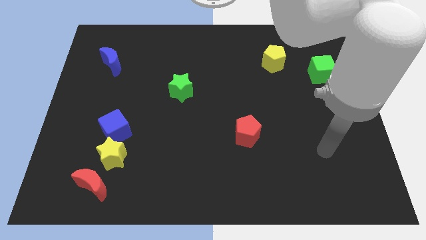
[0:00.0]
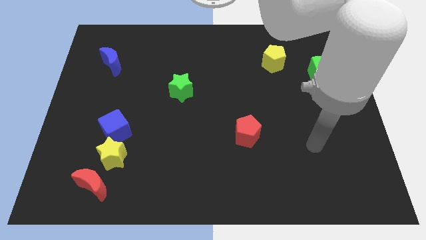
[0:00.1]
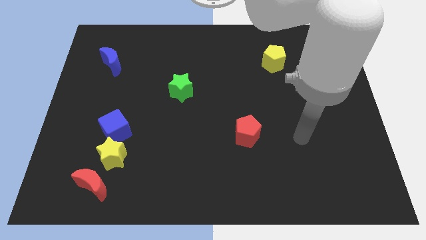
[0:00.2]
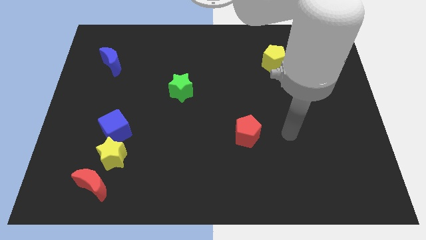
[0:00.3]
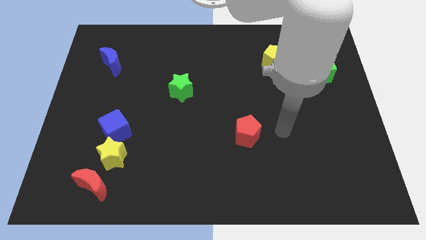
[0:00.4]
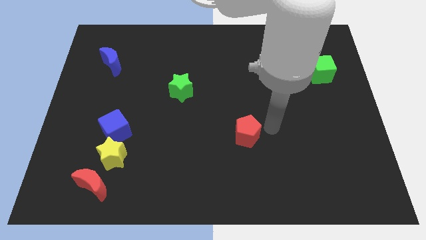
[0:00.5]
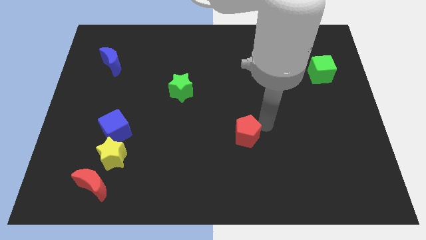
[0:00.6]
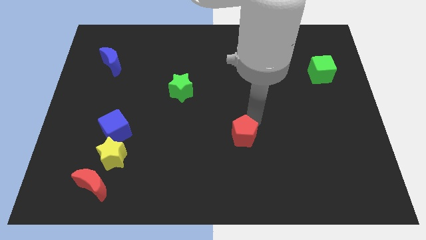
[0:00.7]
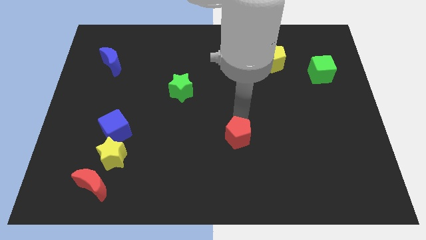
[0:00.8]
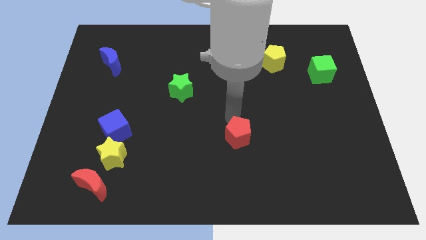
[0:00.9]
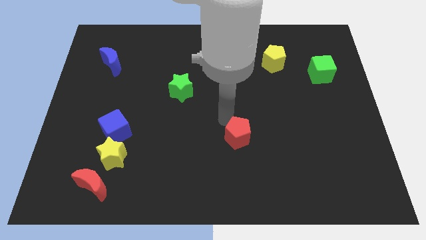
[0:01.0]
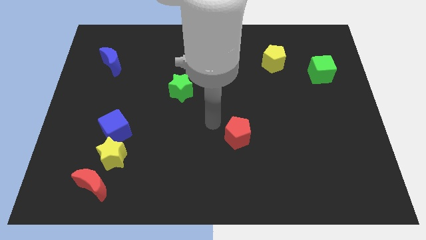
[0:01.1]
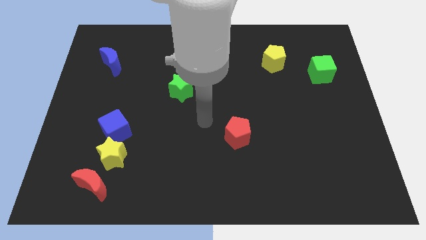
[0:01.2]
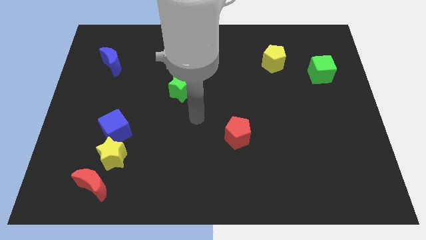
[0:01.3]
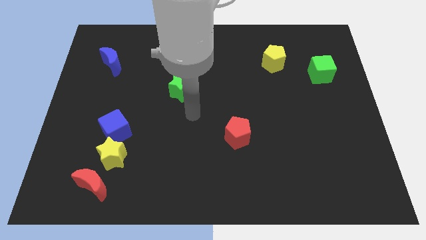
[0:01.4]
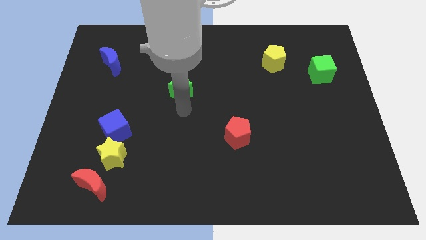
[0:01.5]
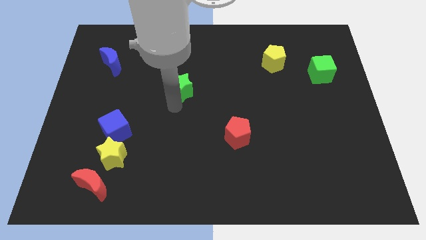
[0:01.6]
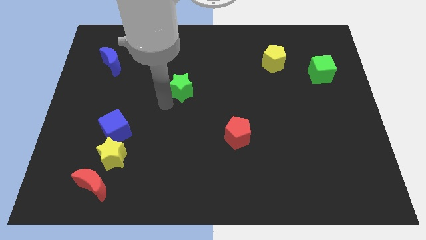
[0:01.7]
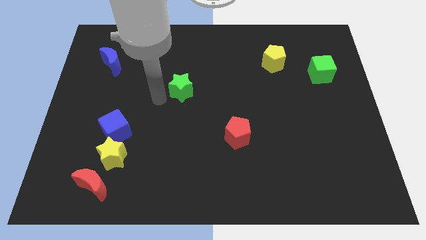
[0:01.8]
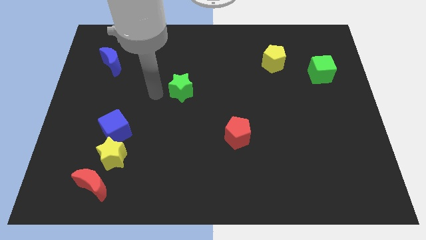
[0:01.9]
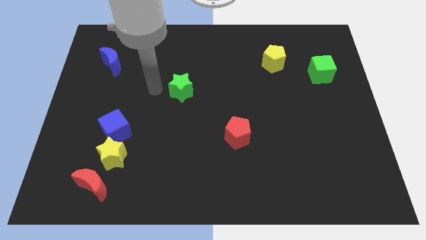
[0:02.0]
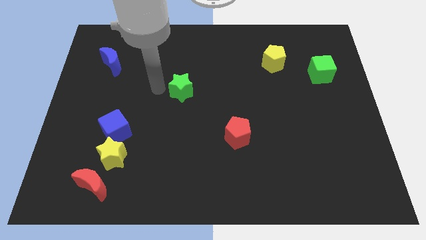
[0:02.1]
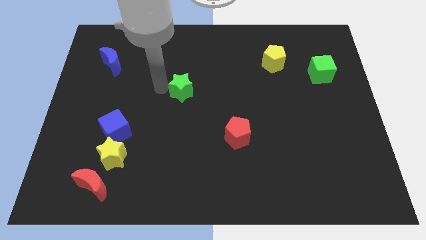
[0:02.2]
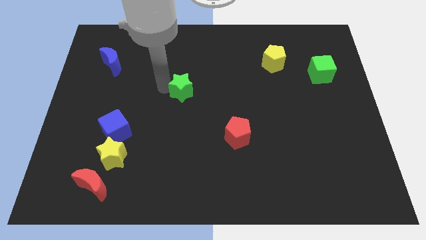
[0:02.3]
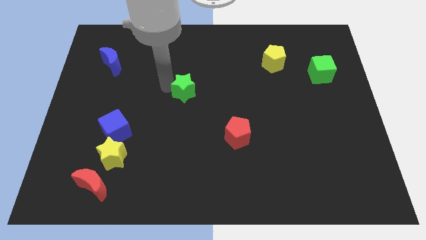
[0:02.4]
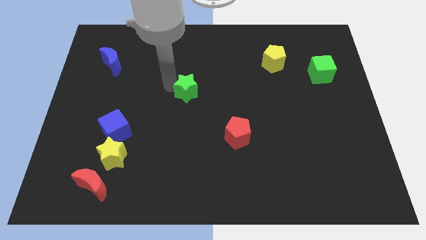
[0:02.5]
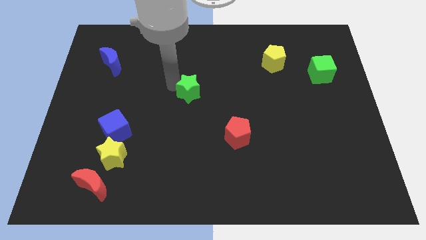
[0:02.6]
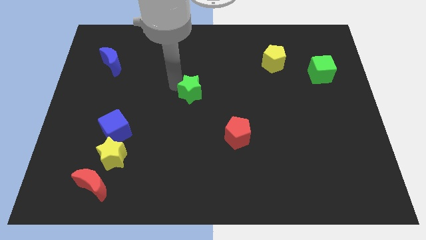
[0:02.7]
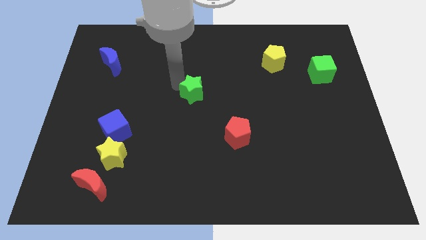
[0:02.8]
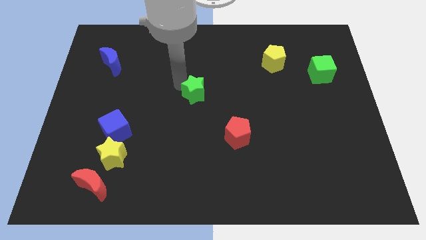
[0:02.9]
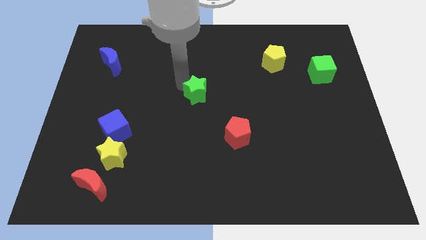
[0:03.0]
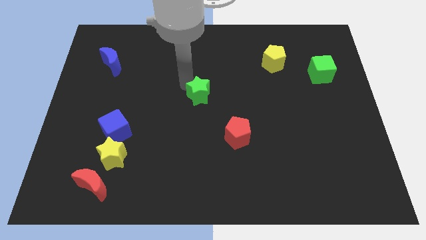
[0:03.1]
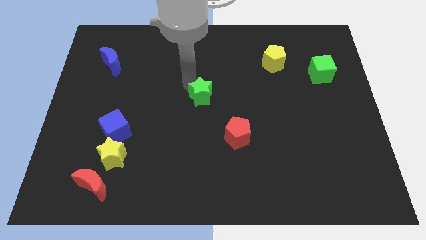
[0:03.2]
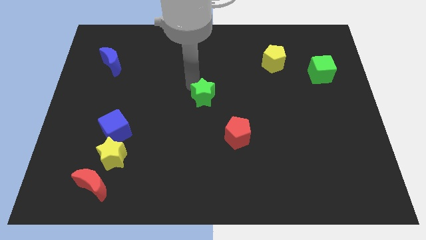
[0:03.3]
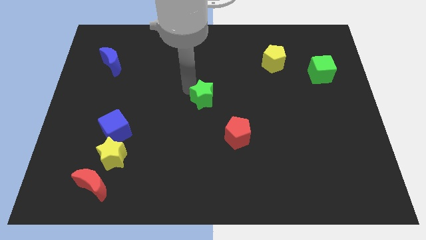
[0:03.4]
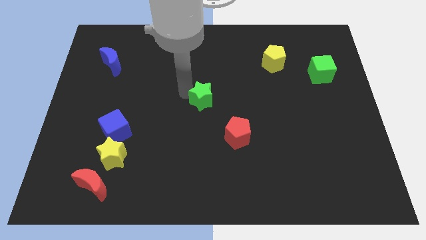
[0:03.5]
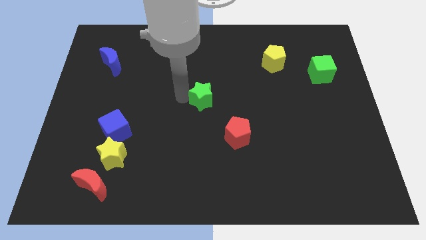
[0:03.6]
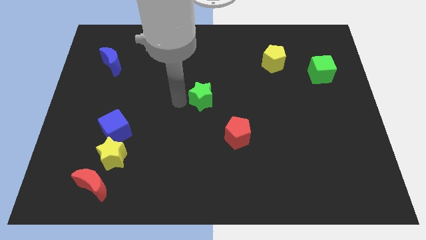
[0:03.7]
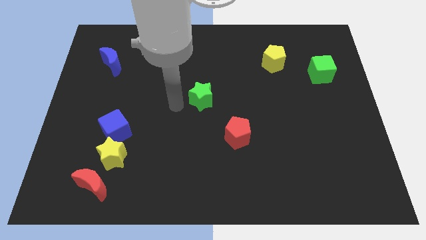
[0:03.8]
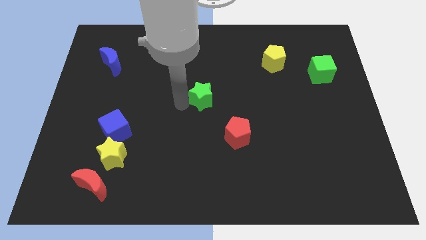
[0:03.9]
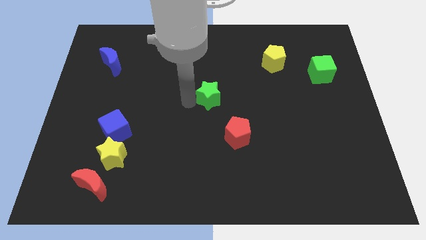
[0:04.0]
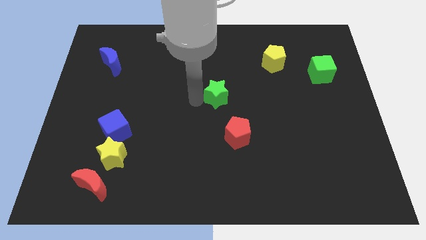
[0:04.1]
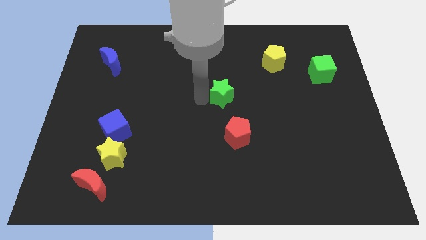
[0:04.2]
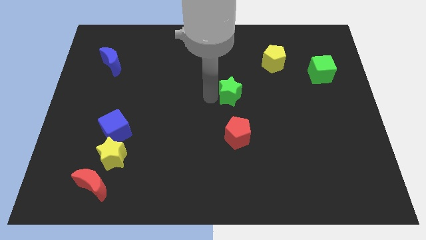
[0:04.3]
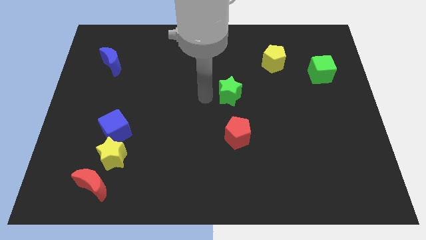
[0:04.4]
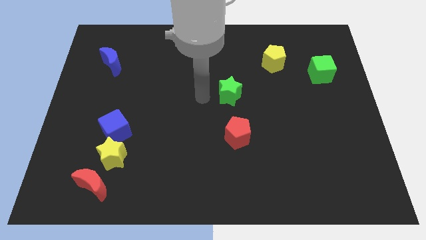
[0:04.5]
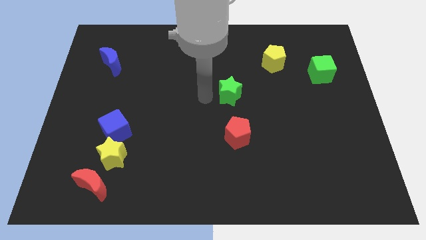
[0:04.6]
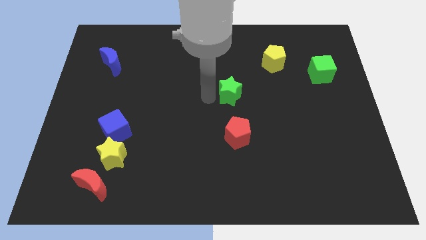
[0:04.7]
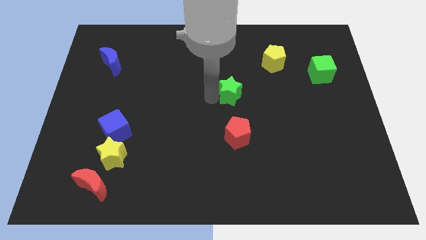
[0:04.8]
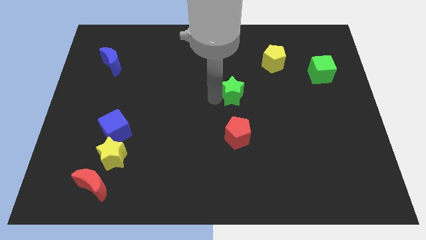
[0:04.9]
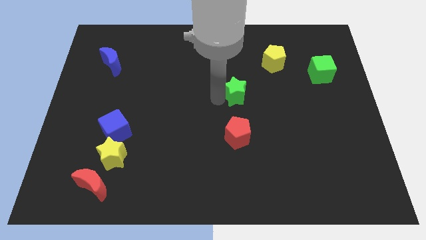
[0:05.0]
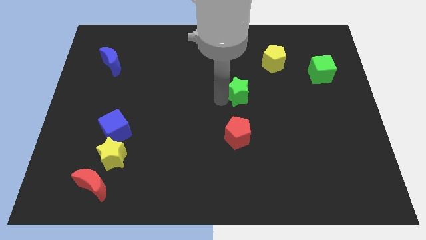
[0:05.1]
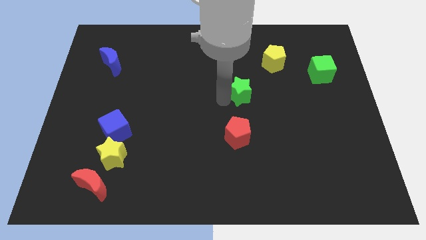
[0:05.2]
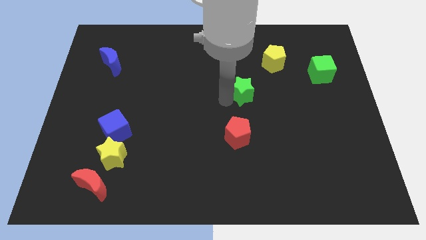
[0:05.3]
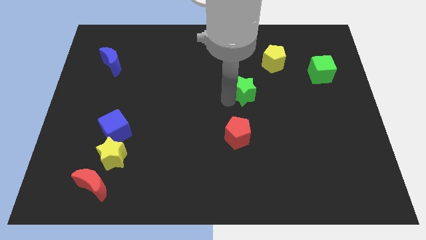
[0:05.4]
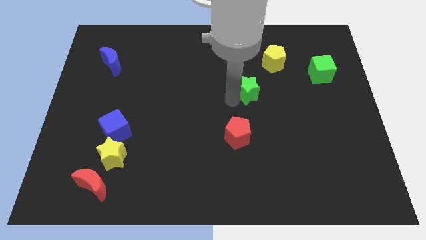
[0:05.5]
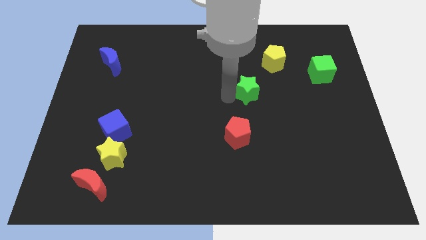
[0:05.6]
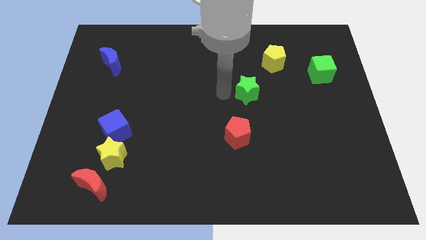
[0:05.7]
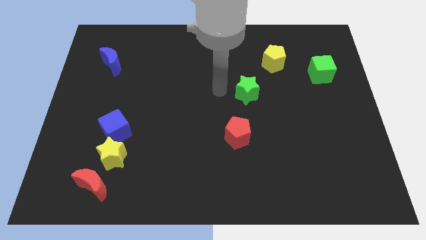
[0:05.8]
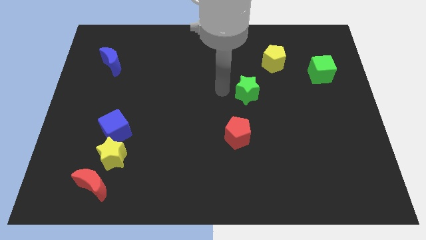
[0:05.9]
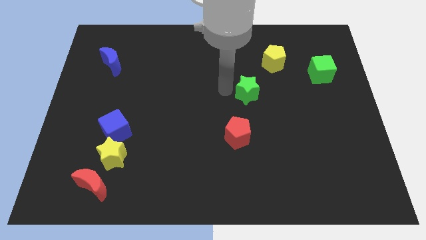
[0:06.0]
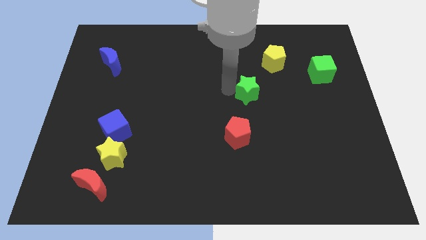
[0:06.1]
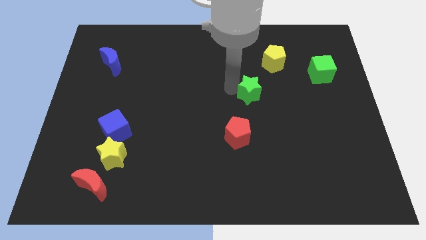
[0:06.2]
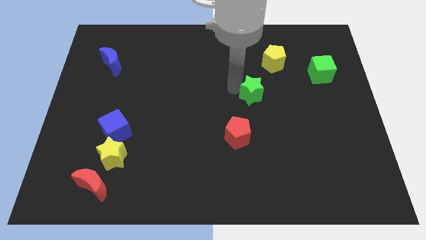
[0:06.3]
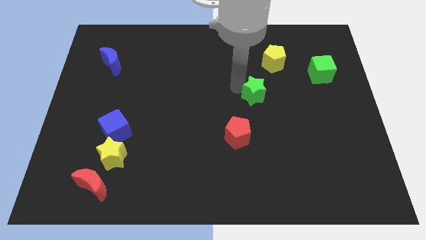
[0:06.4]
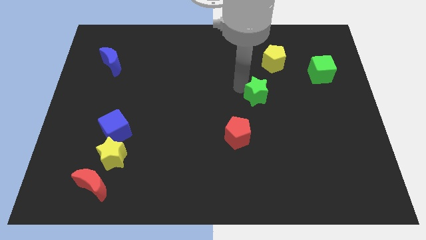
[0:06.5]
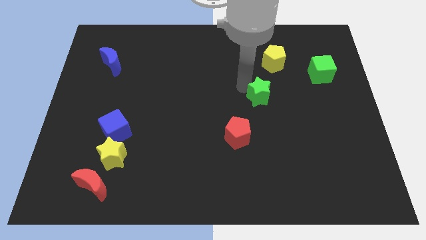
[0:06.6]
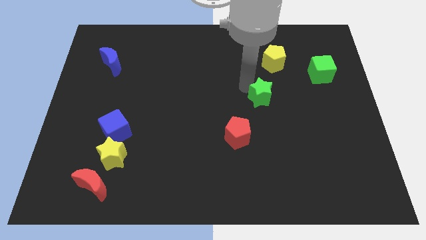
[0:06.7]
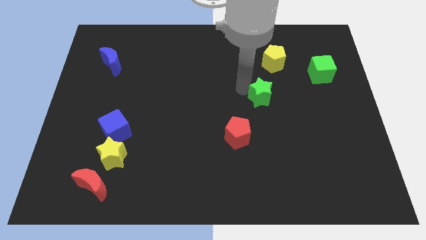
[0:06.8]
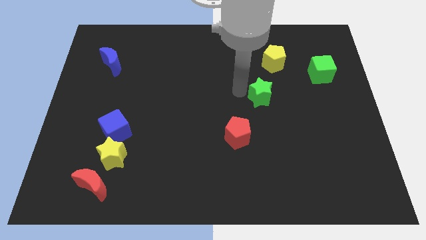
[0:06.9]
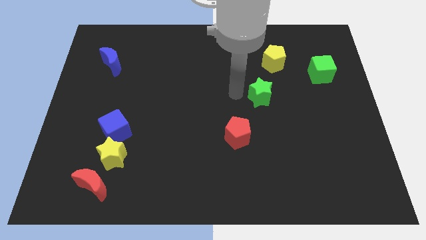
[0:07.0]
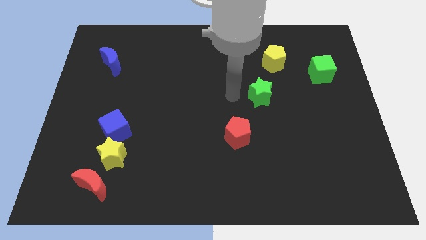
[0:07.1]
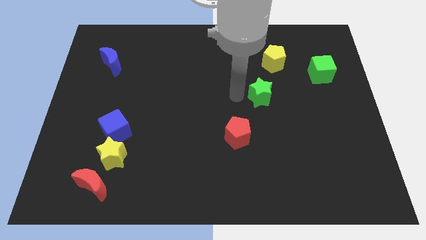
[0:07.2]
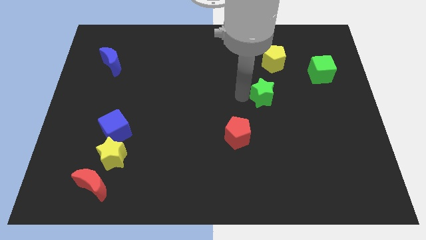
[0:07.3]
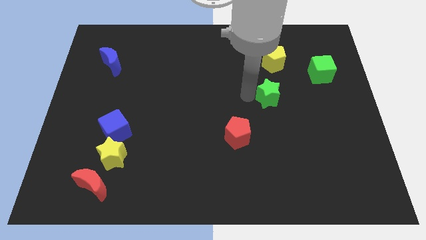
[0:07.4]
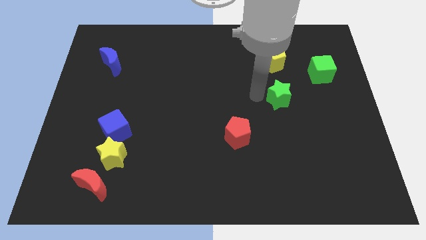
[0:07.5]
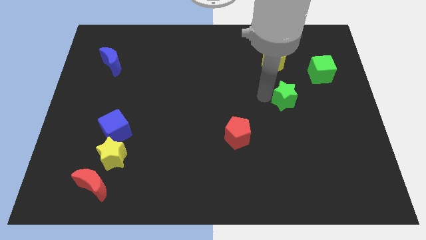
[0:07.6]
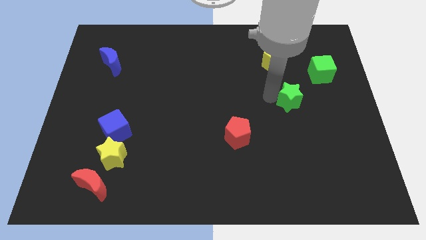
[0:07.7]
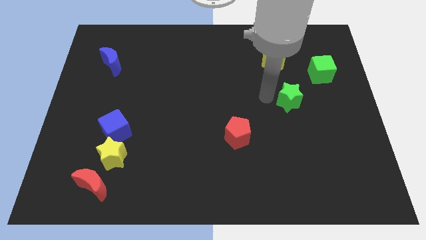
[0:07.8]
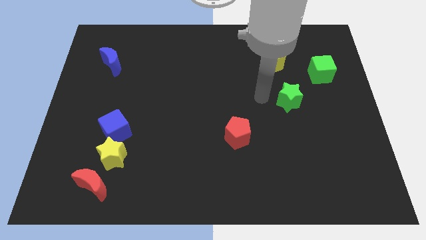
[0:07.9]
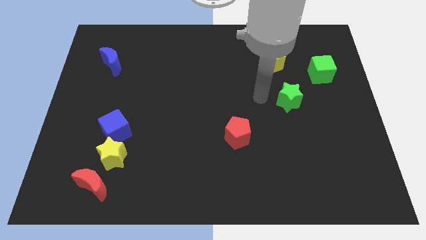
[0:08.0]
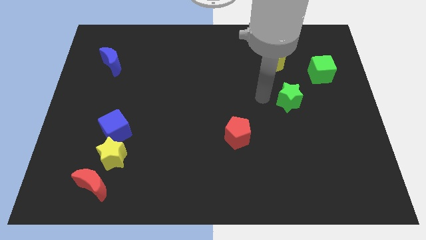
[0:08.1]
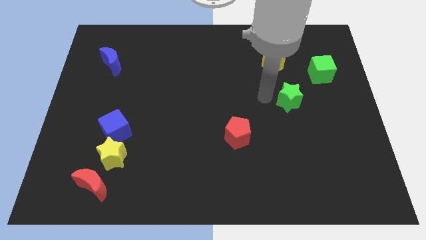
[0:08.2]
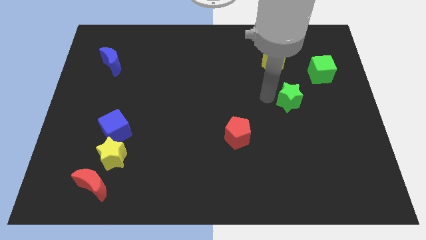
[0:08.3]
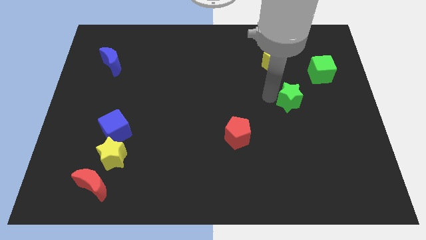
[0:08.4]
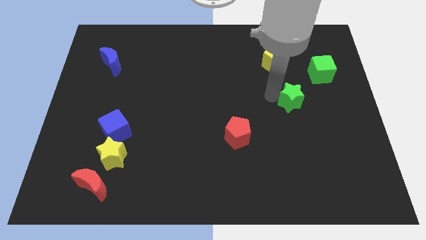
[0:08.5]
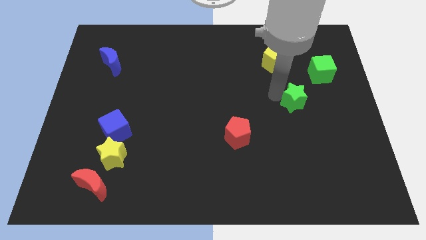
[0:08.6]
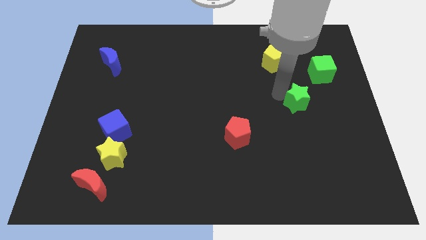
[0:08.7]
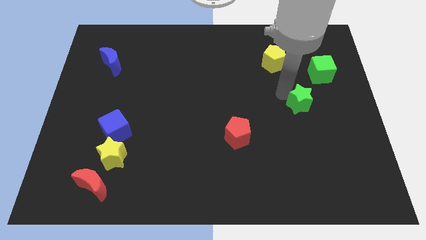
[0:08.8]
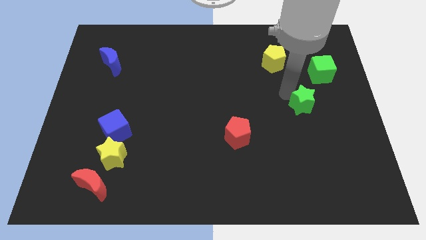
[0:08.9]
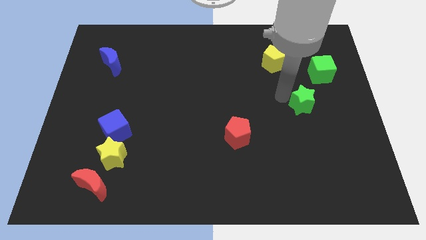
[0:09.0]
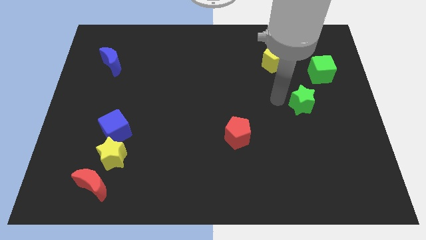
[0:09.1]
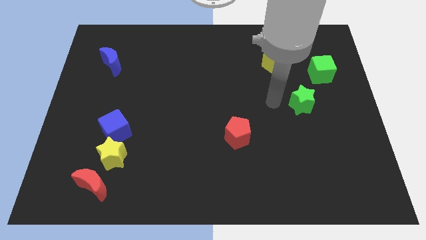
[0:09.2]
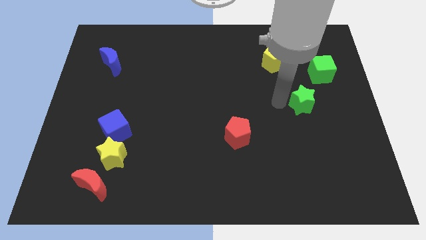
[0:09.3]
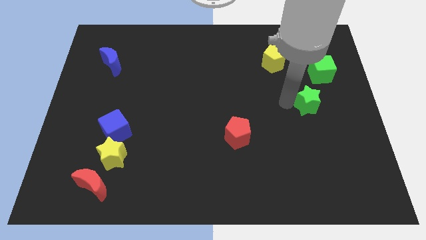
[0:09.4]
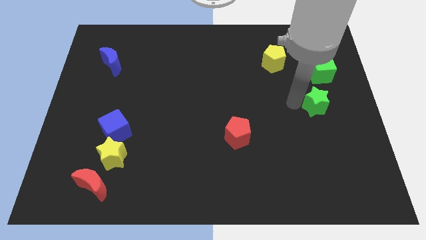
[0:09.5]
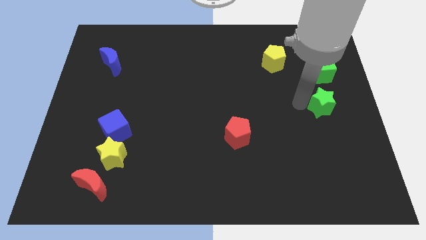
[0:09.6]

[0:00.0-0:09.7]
slide the green star to the right side
